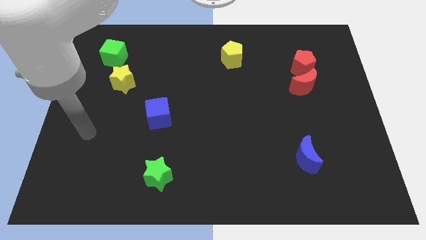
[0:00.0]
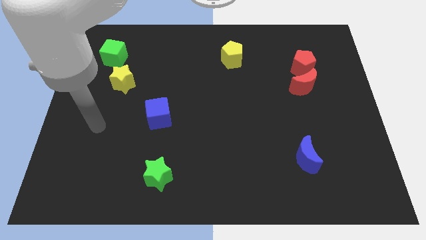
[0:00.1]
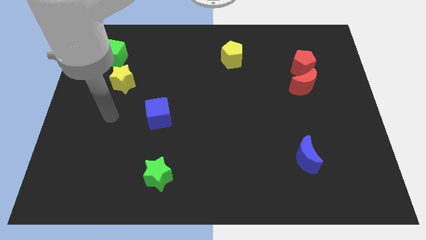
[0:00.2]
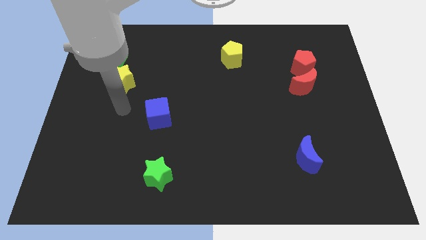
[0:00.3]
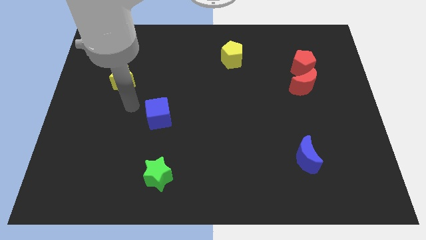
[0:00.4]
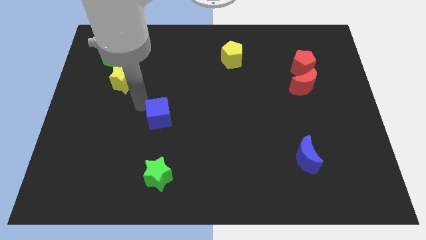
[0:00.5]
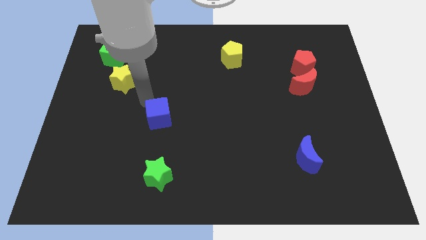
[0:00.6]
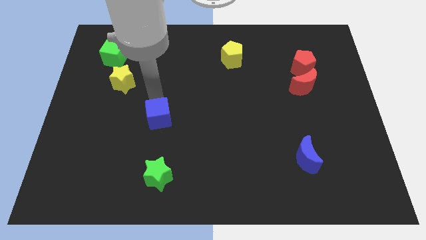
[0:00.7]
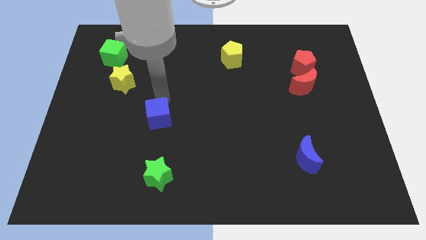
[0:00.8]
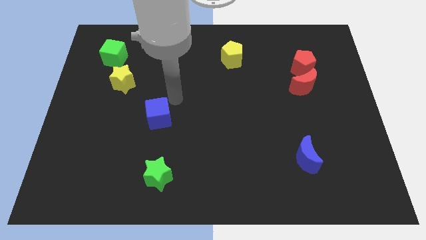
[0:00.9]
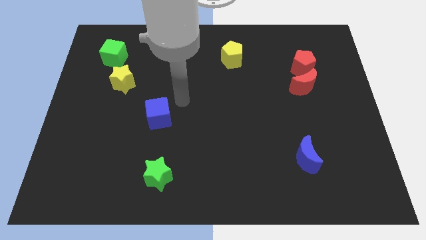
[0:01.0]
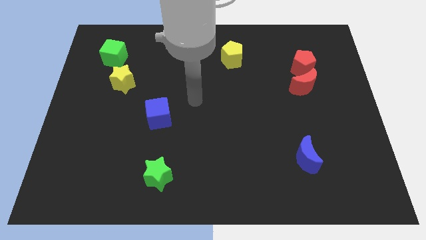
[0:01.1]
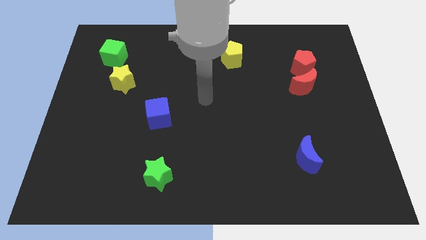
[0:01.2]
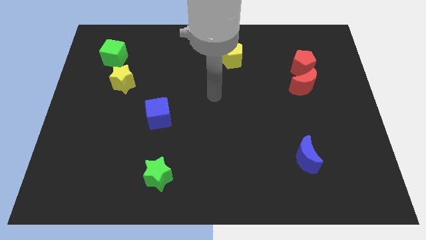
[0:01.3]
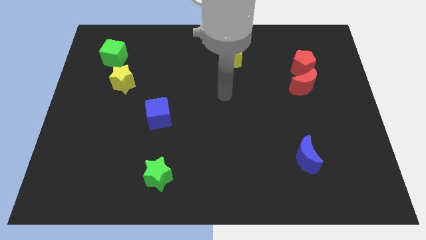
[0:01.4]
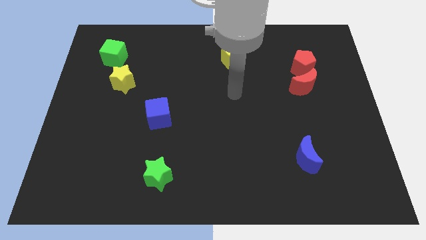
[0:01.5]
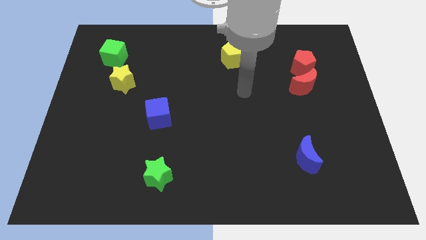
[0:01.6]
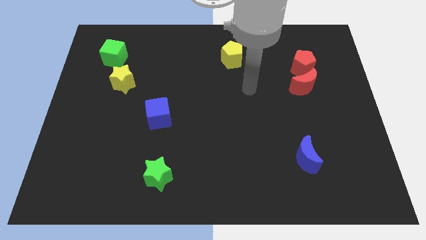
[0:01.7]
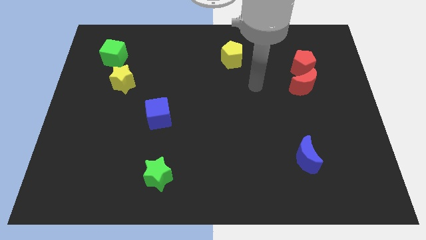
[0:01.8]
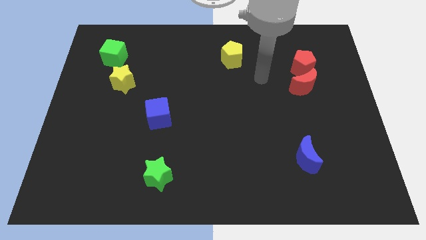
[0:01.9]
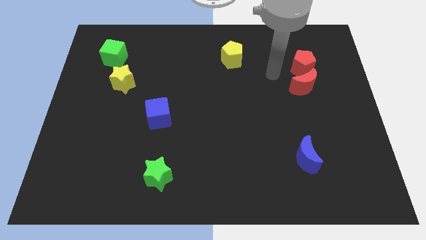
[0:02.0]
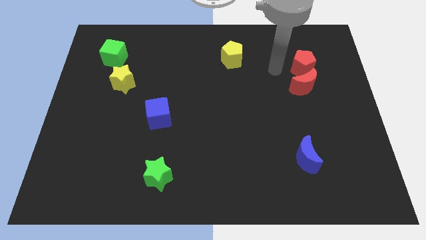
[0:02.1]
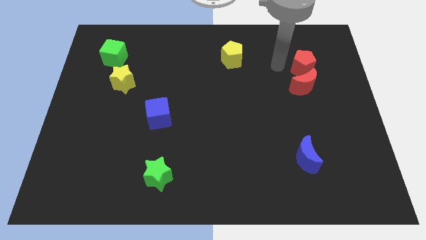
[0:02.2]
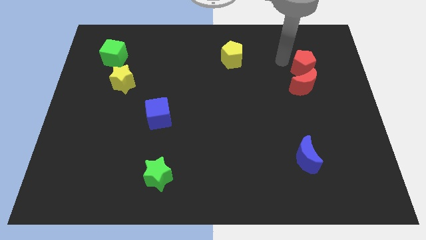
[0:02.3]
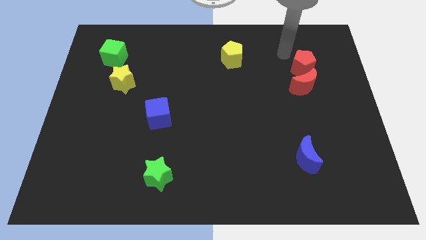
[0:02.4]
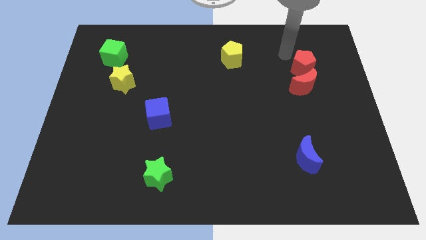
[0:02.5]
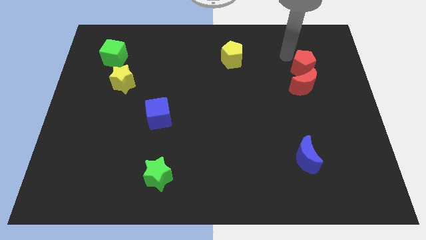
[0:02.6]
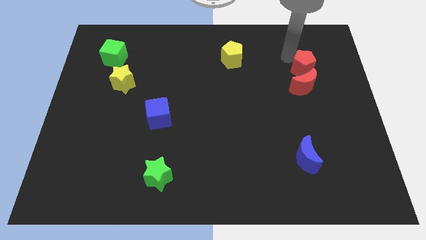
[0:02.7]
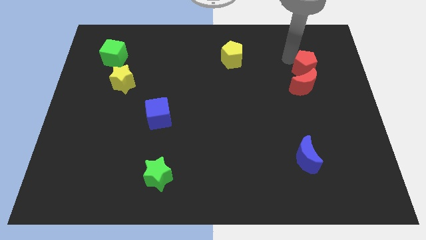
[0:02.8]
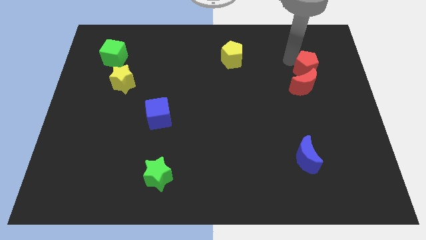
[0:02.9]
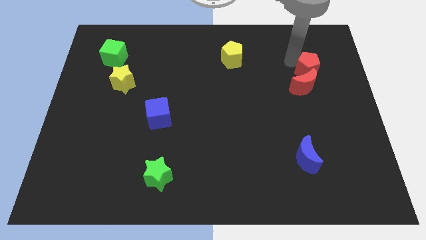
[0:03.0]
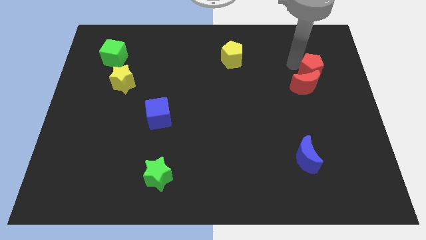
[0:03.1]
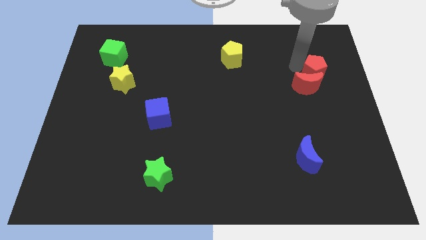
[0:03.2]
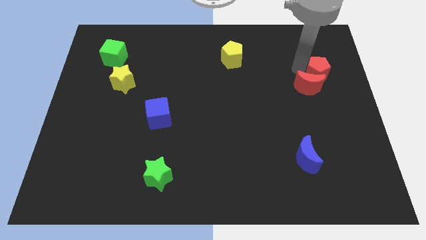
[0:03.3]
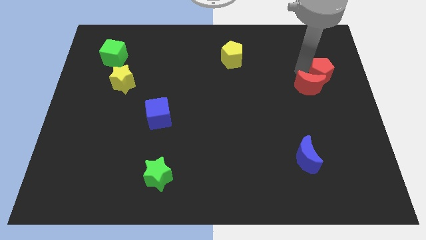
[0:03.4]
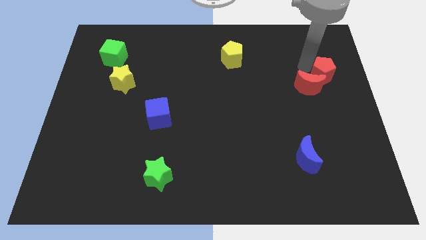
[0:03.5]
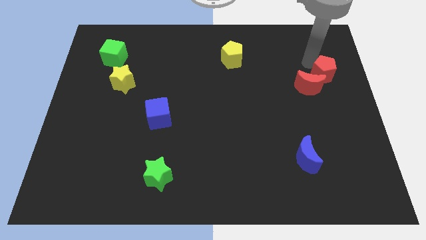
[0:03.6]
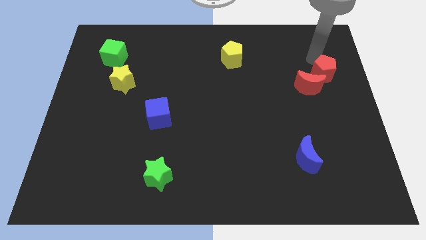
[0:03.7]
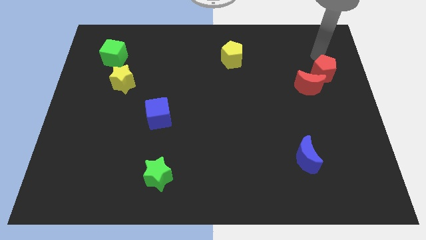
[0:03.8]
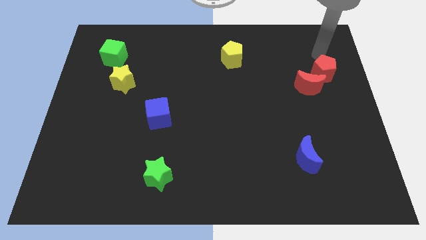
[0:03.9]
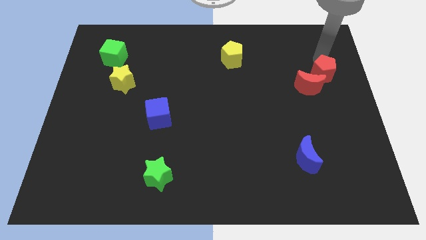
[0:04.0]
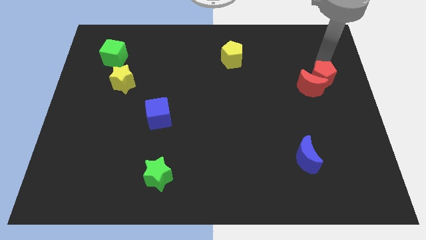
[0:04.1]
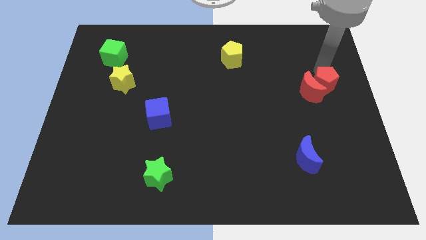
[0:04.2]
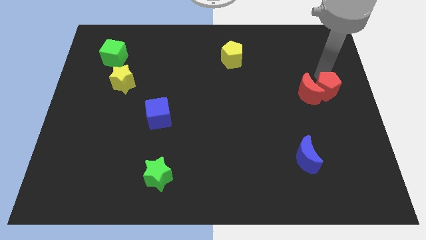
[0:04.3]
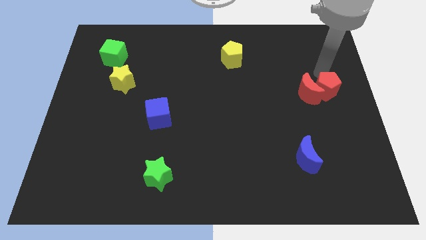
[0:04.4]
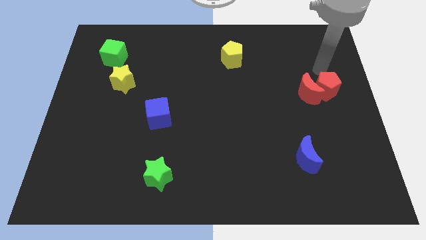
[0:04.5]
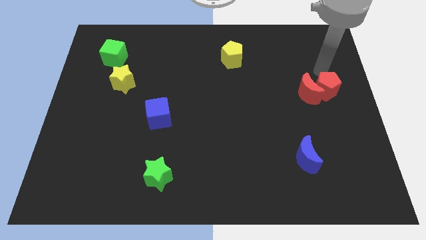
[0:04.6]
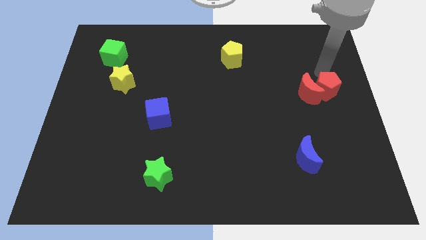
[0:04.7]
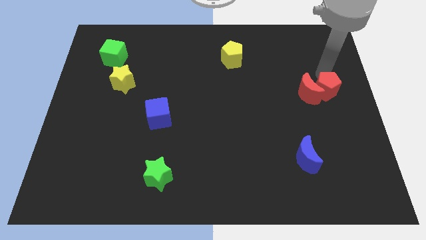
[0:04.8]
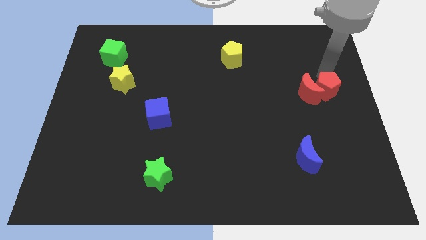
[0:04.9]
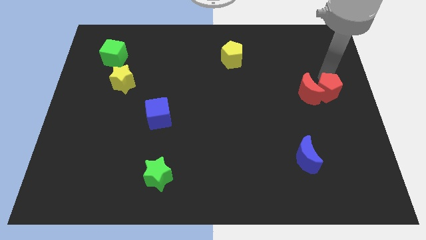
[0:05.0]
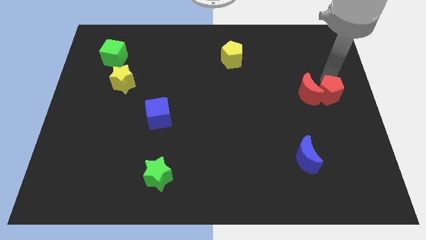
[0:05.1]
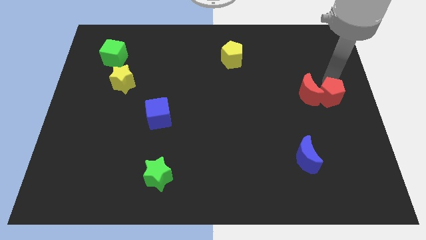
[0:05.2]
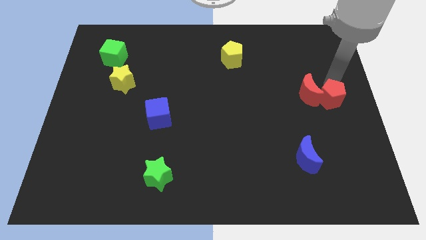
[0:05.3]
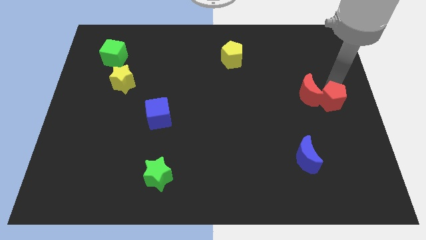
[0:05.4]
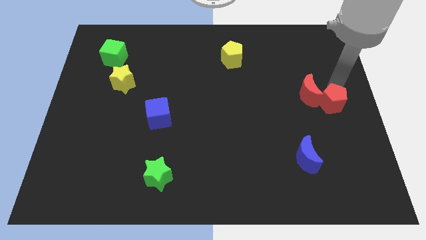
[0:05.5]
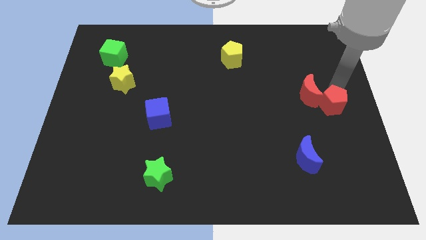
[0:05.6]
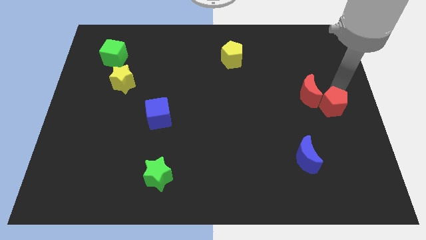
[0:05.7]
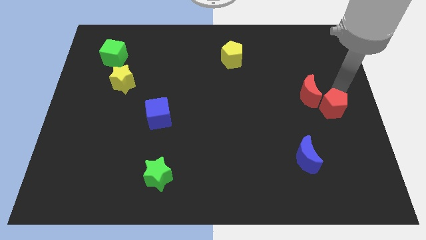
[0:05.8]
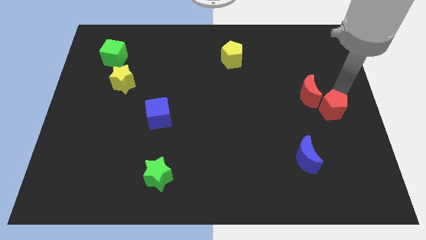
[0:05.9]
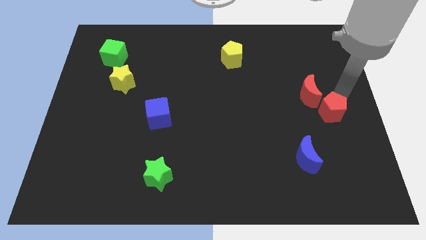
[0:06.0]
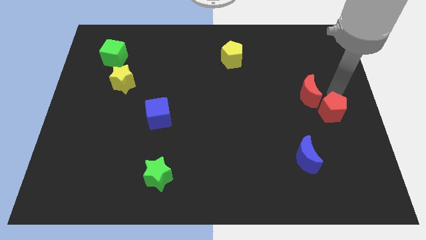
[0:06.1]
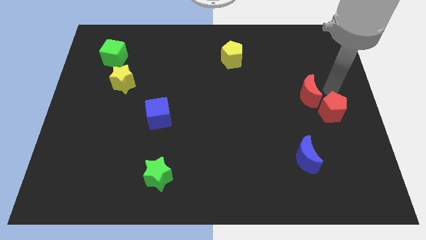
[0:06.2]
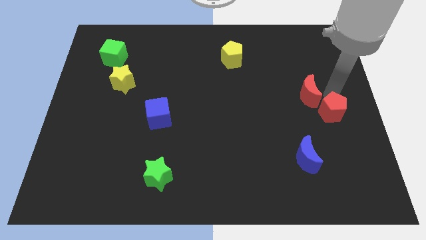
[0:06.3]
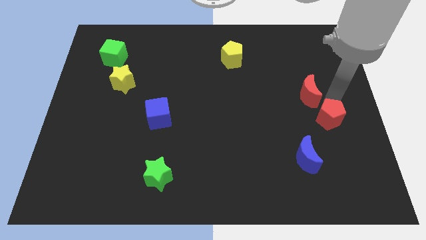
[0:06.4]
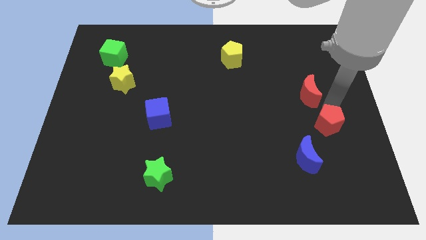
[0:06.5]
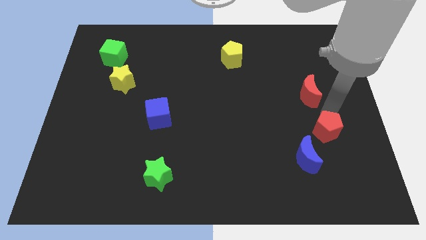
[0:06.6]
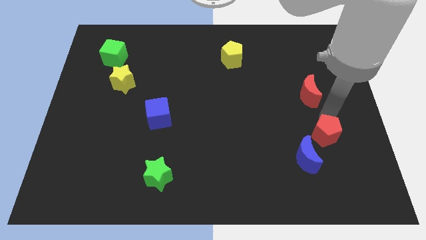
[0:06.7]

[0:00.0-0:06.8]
slide the red pentagon down

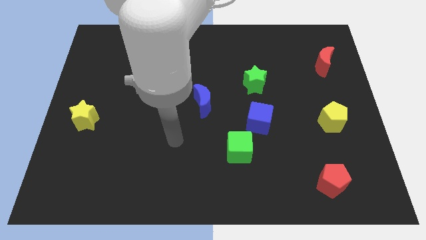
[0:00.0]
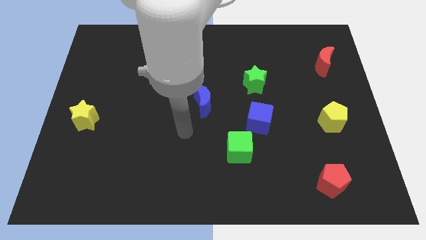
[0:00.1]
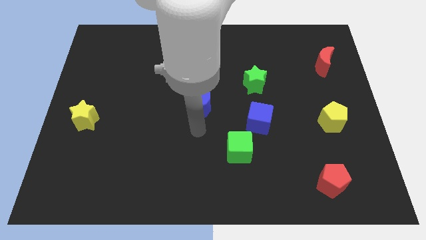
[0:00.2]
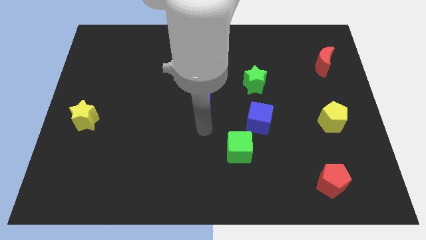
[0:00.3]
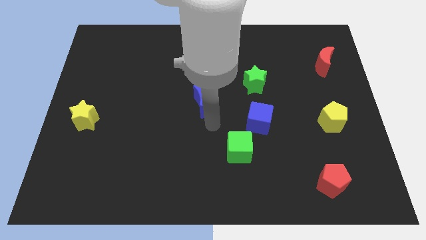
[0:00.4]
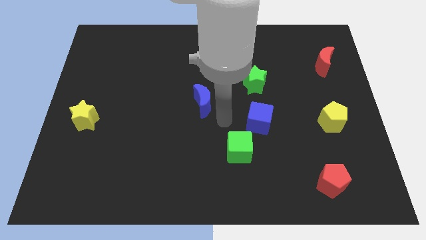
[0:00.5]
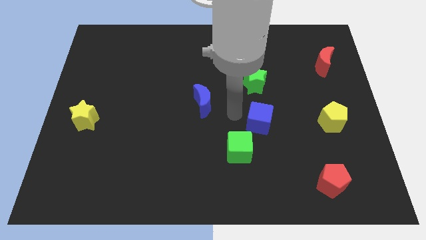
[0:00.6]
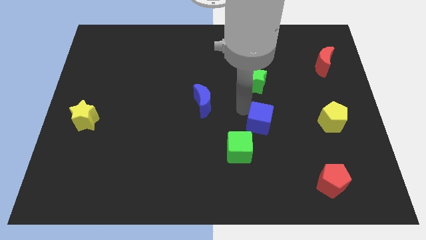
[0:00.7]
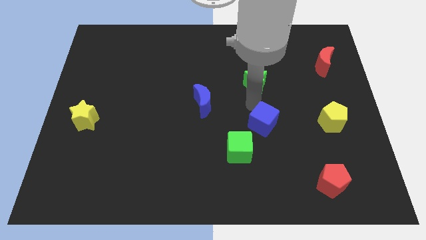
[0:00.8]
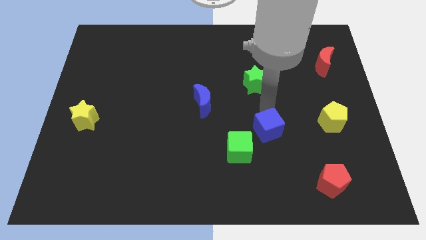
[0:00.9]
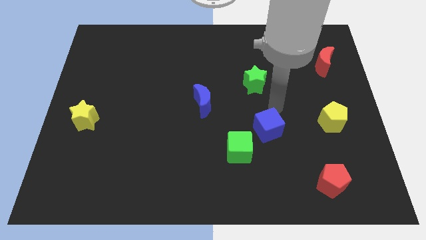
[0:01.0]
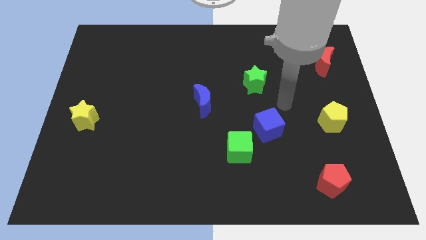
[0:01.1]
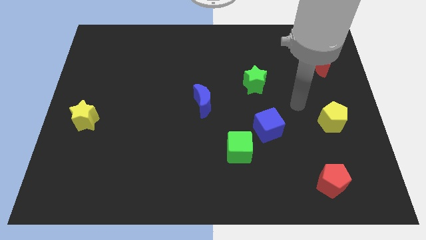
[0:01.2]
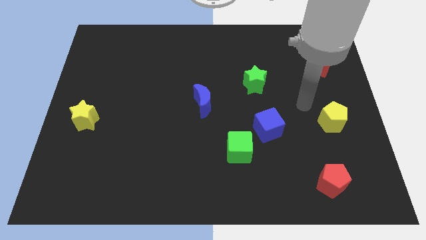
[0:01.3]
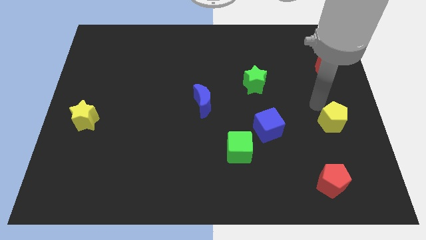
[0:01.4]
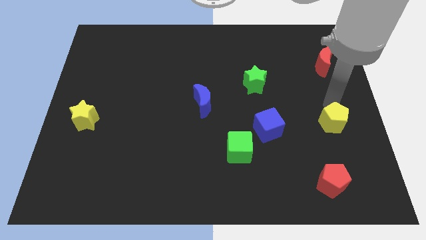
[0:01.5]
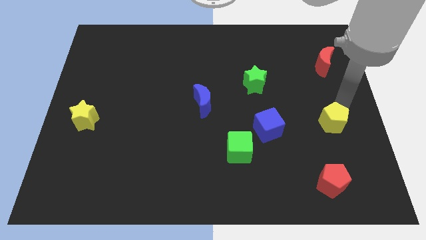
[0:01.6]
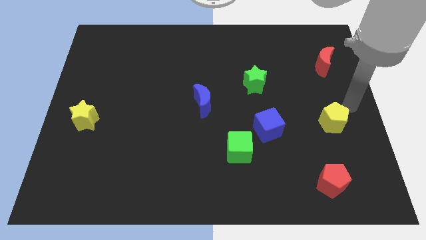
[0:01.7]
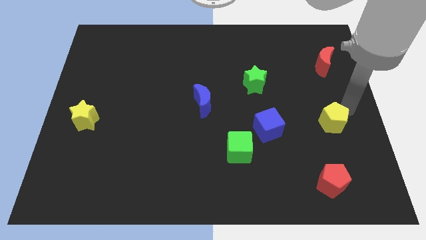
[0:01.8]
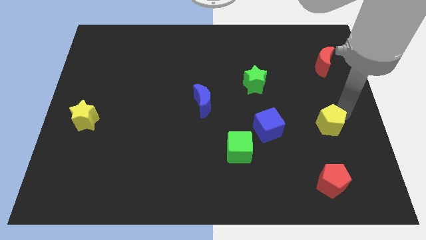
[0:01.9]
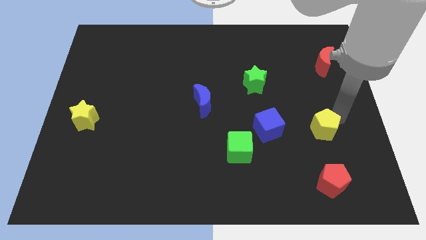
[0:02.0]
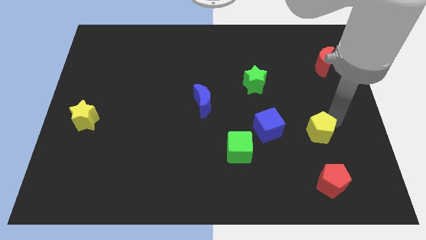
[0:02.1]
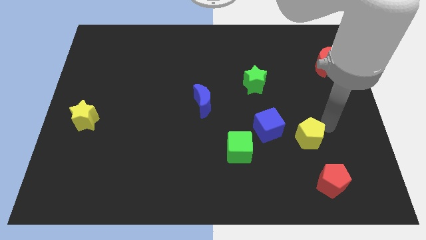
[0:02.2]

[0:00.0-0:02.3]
slide the yellow pentagon a bit diagonally downwards and left
